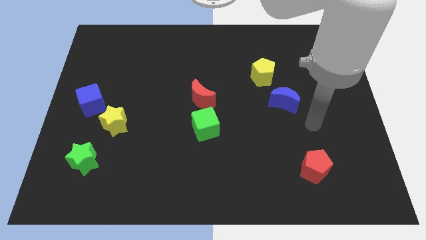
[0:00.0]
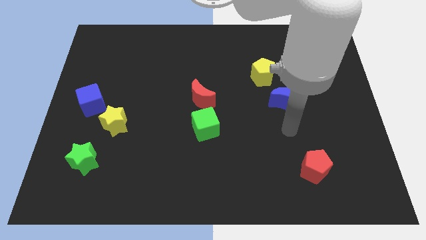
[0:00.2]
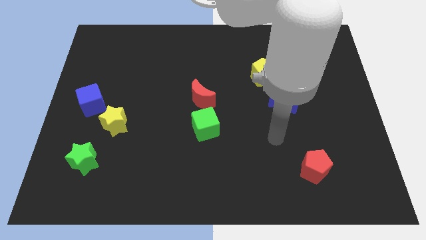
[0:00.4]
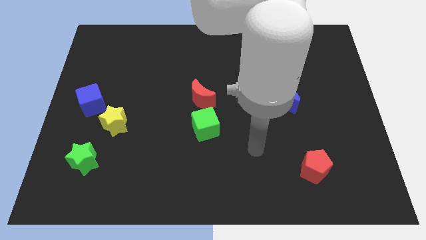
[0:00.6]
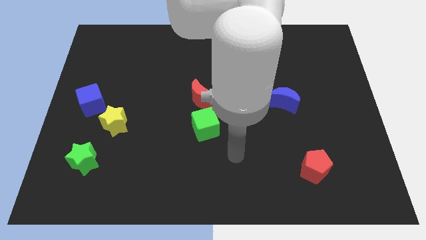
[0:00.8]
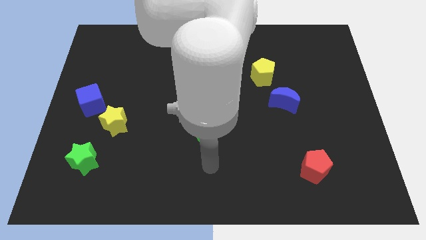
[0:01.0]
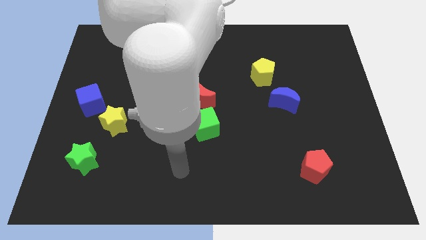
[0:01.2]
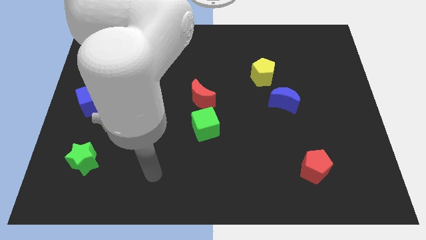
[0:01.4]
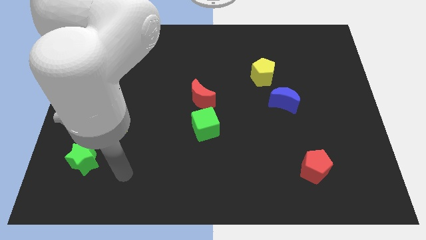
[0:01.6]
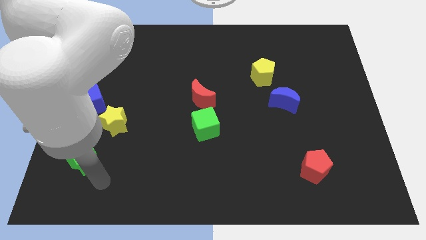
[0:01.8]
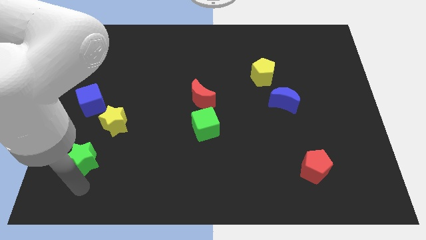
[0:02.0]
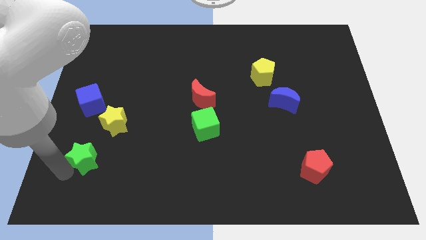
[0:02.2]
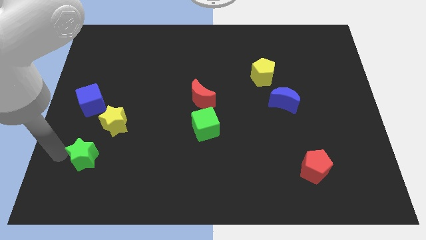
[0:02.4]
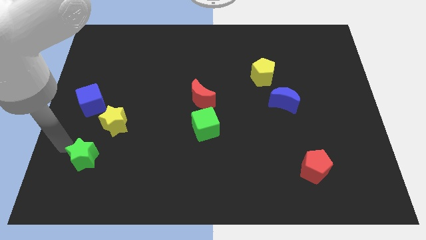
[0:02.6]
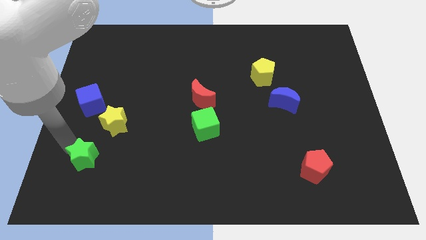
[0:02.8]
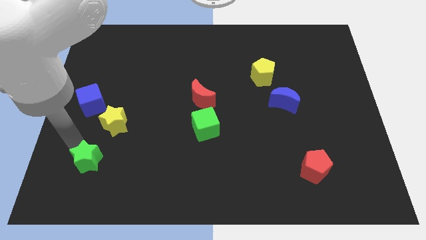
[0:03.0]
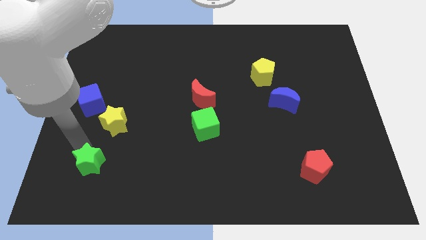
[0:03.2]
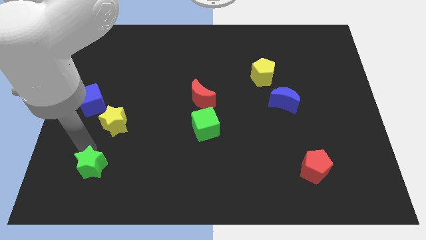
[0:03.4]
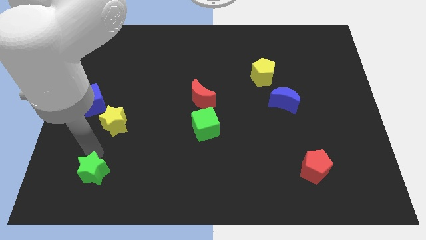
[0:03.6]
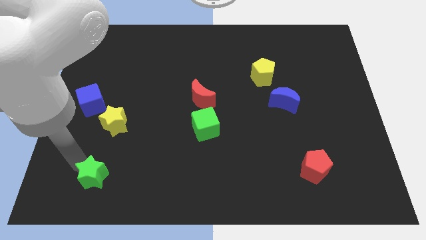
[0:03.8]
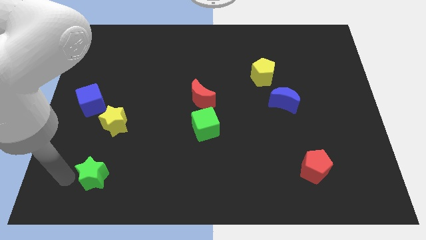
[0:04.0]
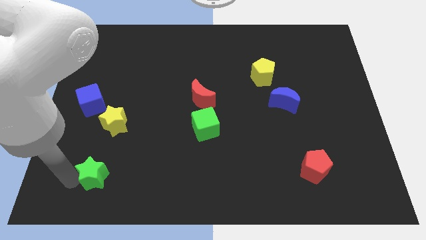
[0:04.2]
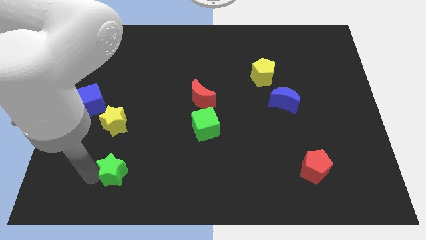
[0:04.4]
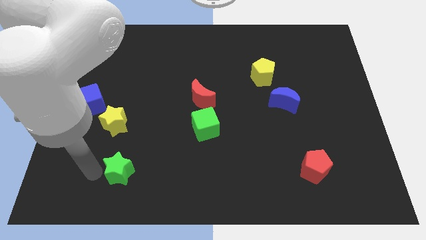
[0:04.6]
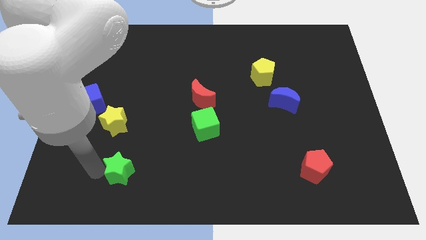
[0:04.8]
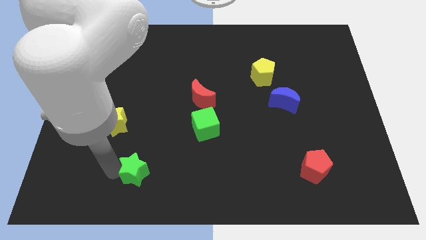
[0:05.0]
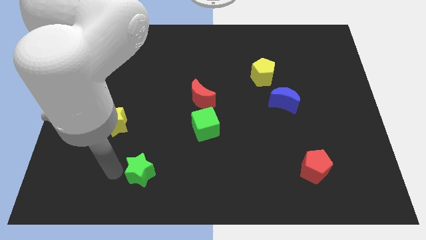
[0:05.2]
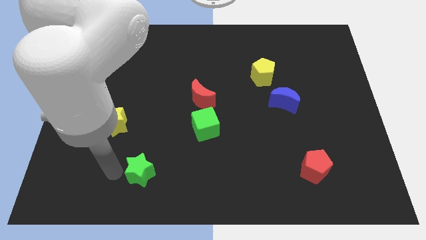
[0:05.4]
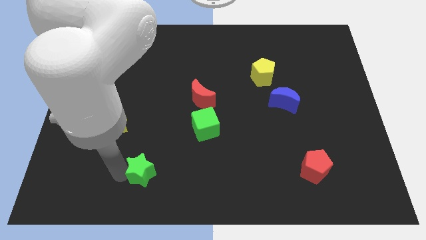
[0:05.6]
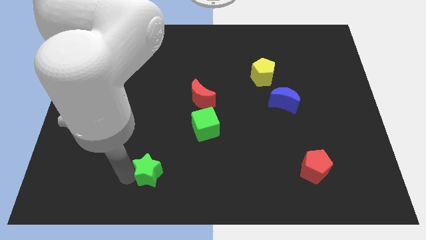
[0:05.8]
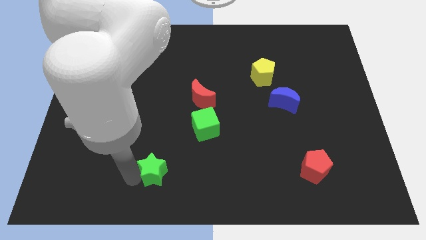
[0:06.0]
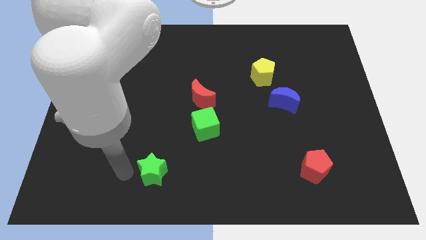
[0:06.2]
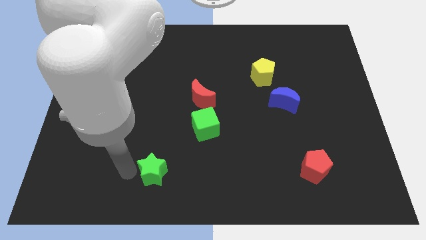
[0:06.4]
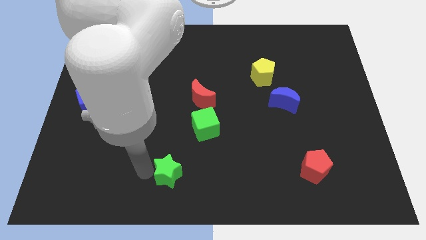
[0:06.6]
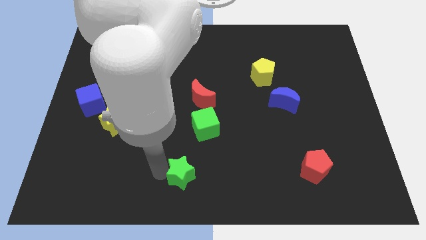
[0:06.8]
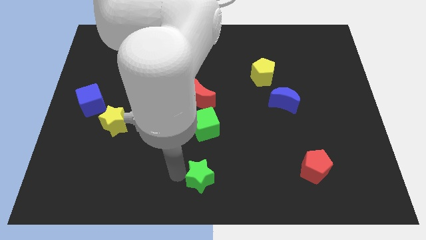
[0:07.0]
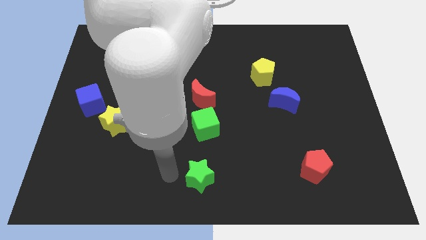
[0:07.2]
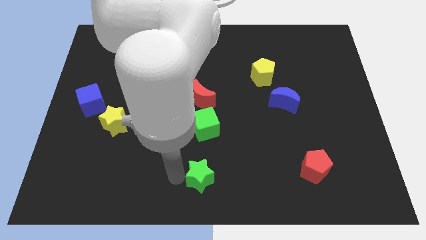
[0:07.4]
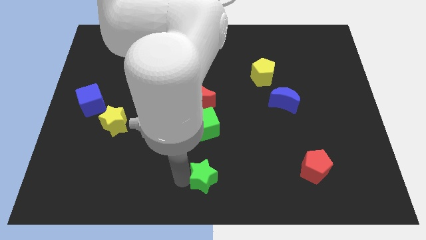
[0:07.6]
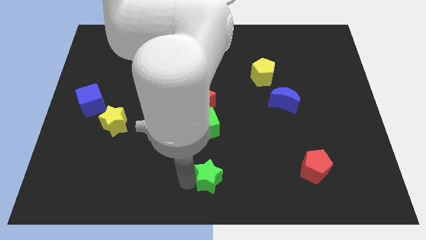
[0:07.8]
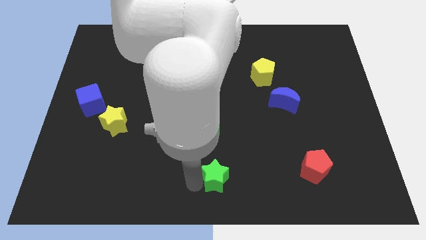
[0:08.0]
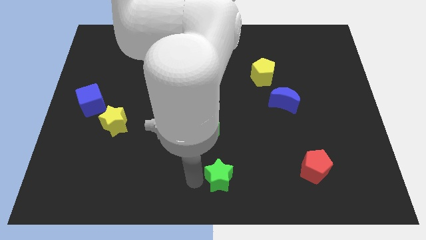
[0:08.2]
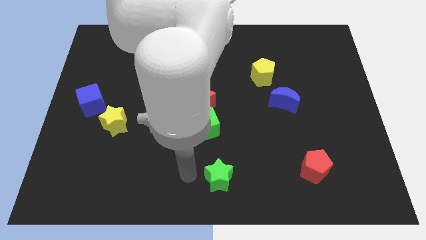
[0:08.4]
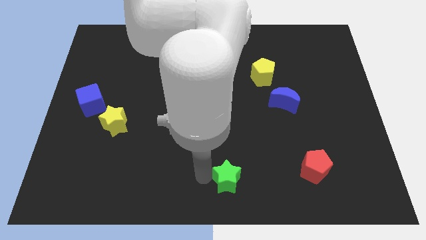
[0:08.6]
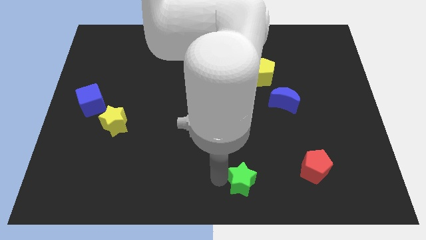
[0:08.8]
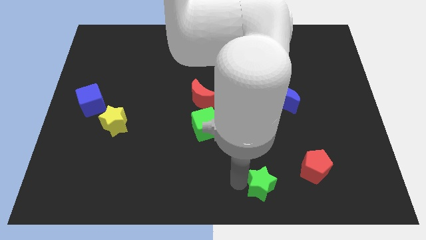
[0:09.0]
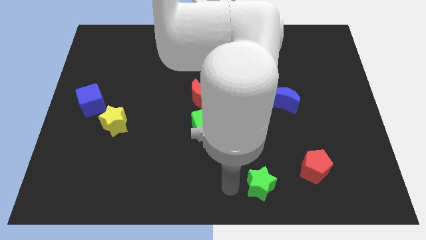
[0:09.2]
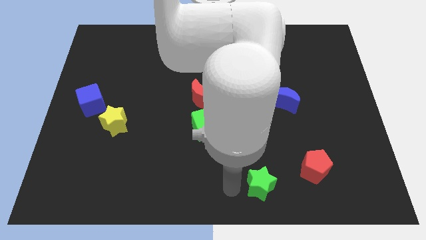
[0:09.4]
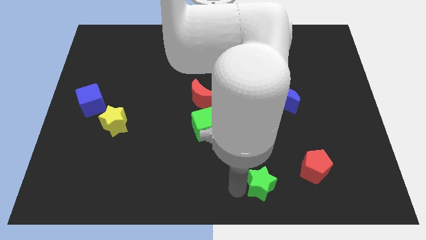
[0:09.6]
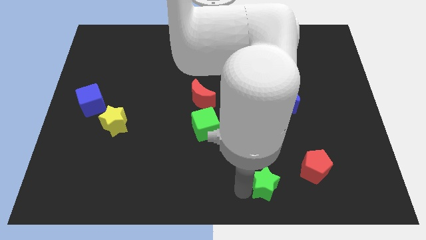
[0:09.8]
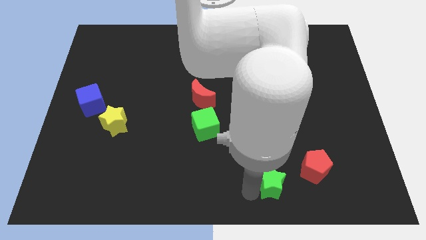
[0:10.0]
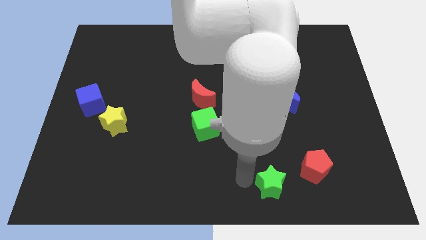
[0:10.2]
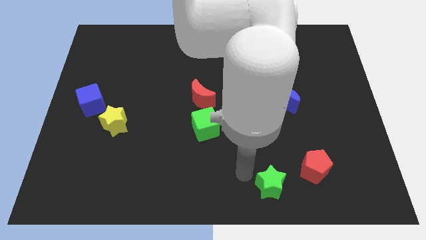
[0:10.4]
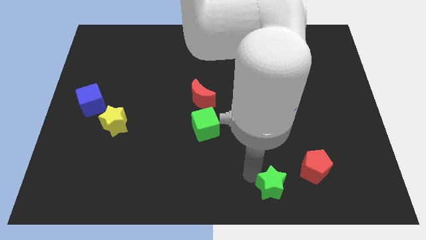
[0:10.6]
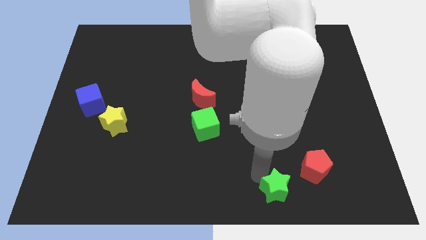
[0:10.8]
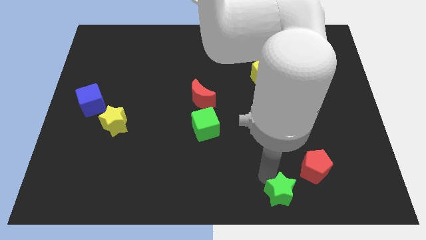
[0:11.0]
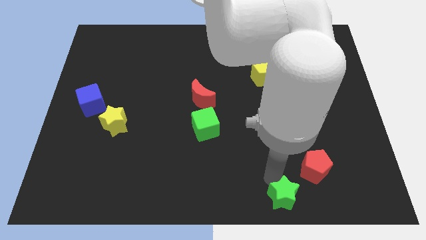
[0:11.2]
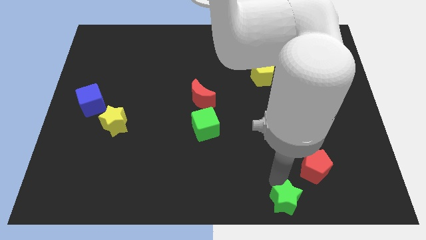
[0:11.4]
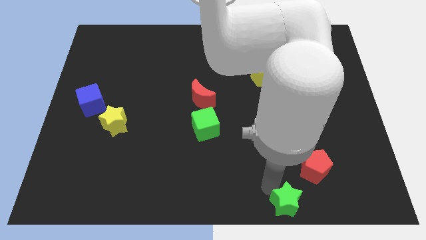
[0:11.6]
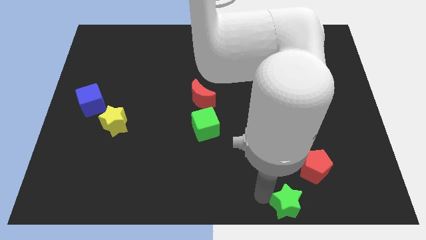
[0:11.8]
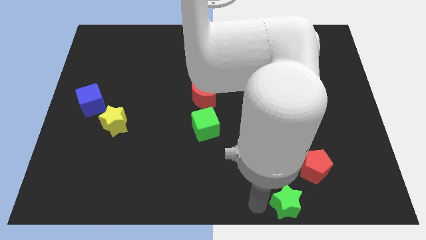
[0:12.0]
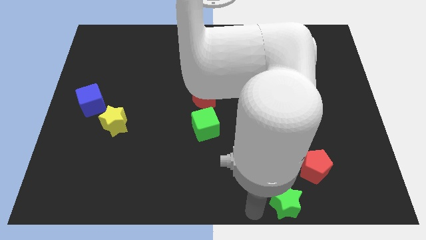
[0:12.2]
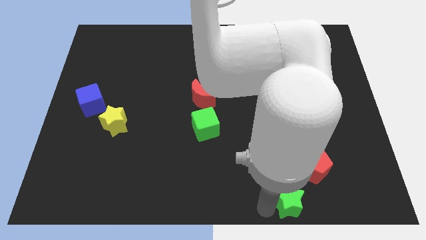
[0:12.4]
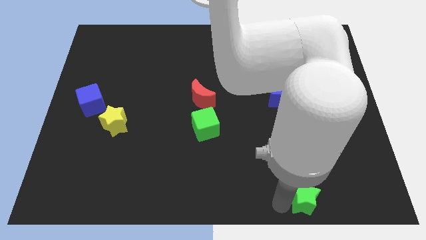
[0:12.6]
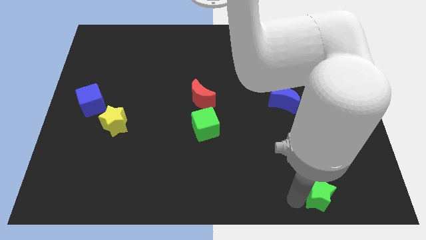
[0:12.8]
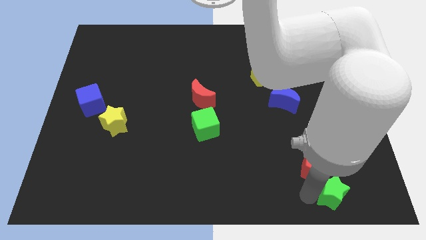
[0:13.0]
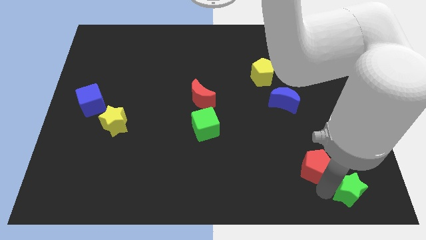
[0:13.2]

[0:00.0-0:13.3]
move the green star to the bottom right corner
